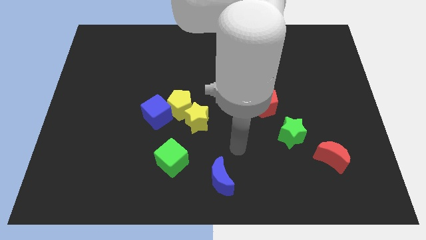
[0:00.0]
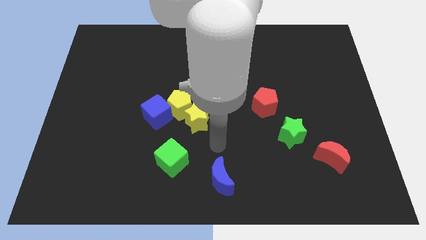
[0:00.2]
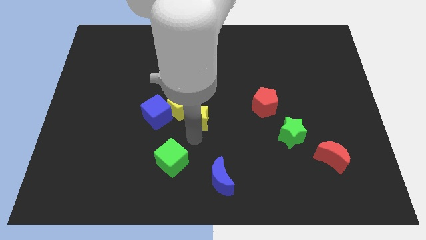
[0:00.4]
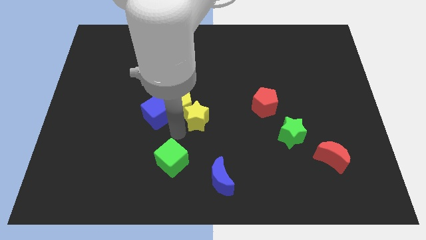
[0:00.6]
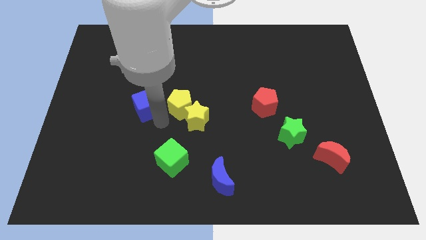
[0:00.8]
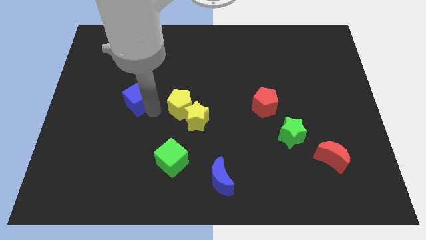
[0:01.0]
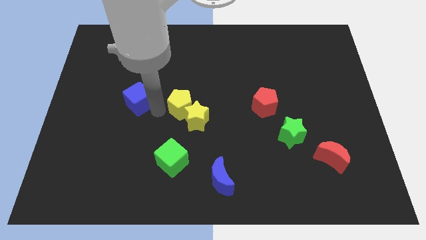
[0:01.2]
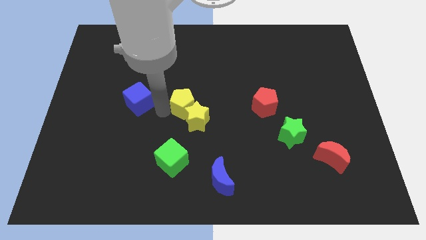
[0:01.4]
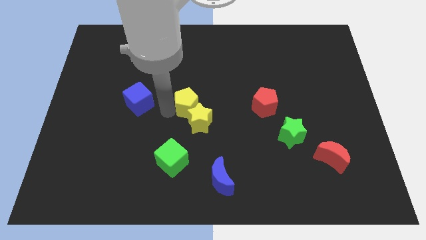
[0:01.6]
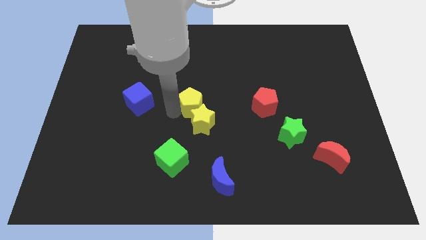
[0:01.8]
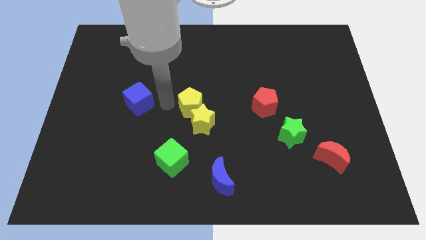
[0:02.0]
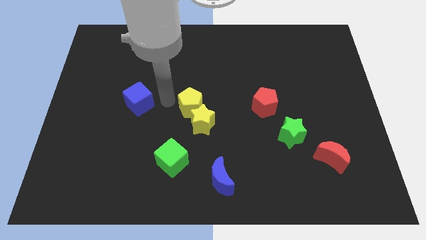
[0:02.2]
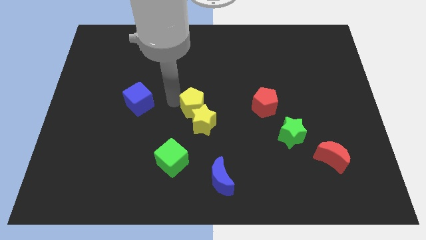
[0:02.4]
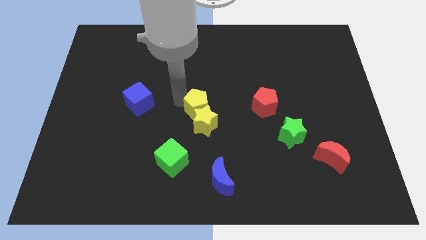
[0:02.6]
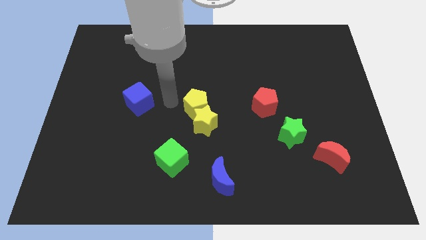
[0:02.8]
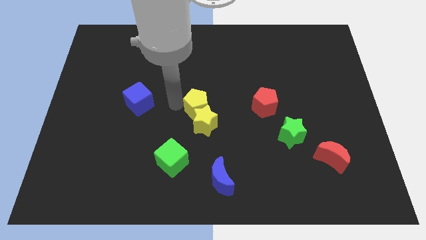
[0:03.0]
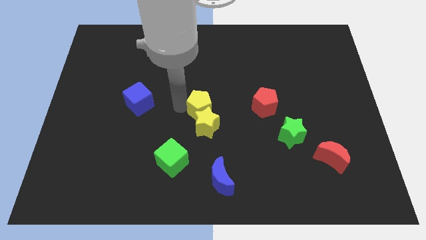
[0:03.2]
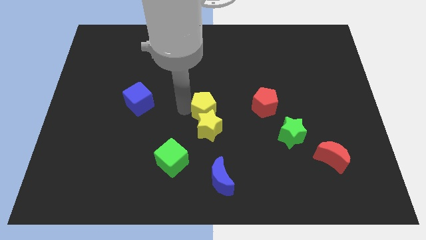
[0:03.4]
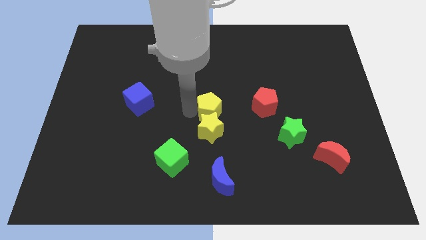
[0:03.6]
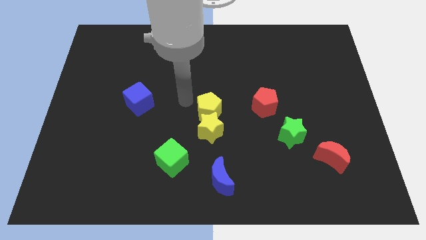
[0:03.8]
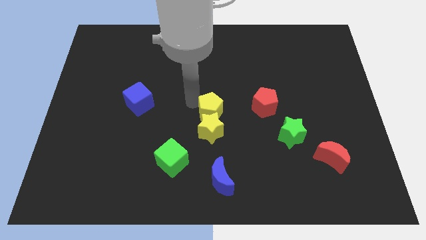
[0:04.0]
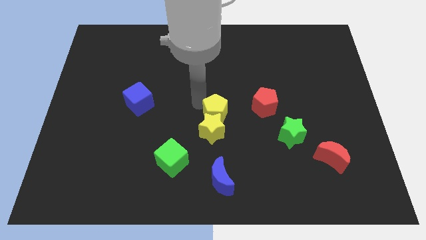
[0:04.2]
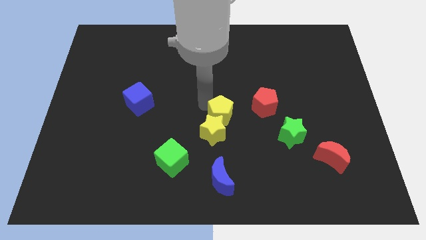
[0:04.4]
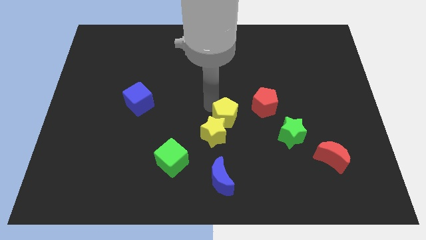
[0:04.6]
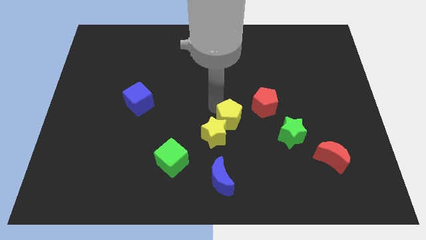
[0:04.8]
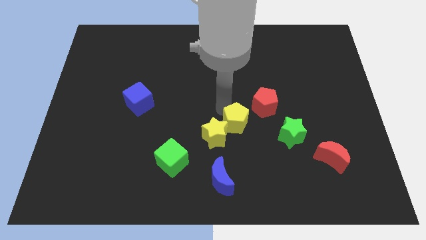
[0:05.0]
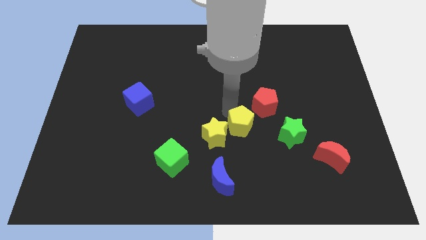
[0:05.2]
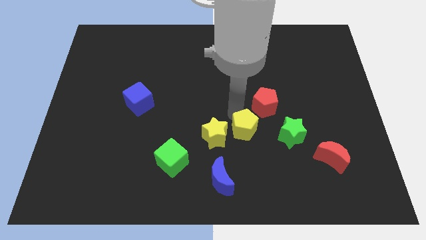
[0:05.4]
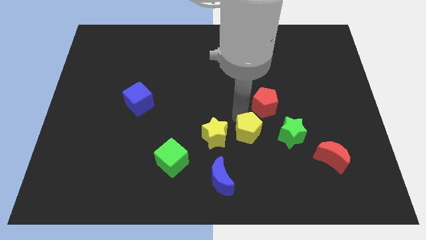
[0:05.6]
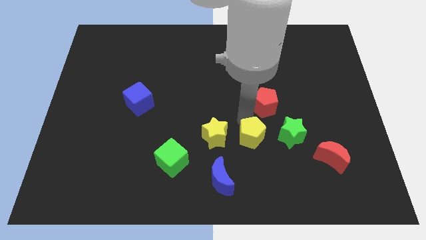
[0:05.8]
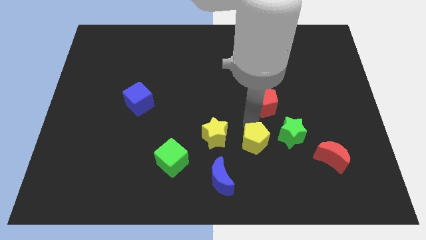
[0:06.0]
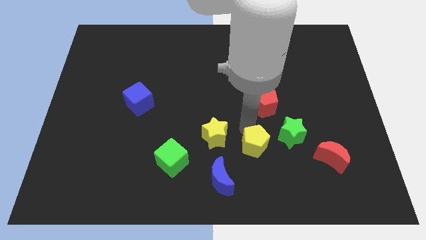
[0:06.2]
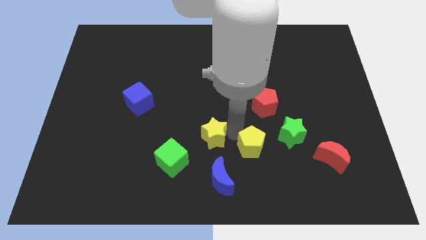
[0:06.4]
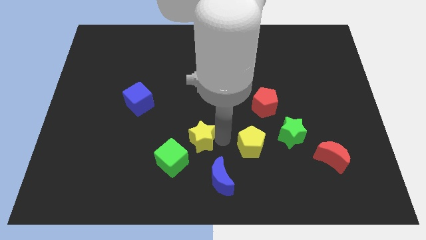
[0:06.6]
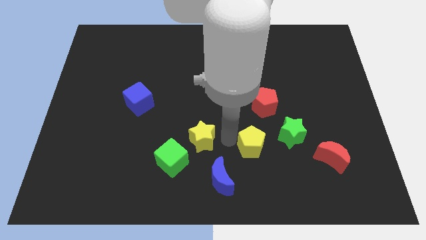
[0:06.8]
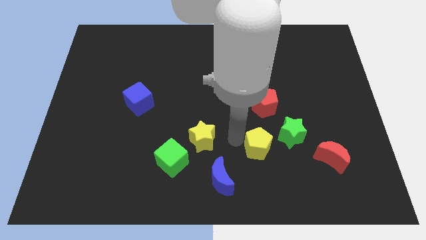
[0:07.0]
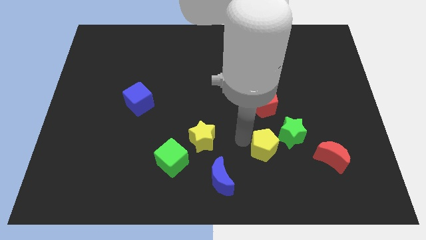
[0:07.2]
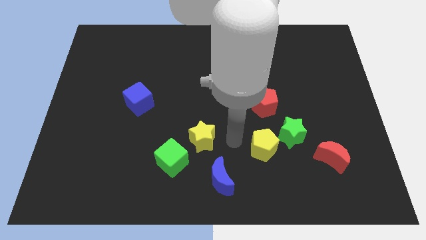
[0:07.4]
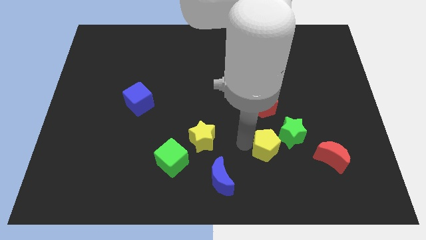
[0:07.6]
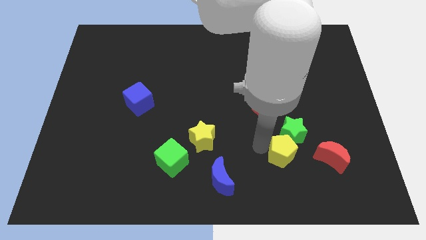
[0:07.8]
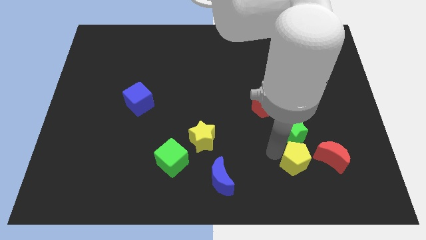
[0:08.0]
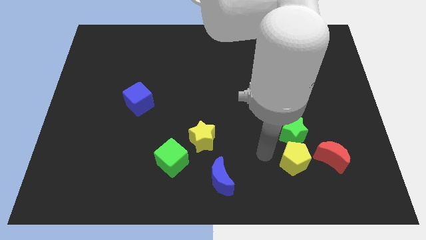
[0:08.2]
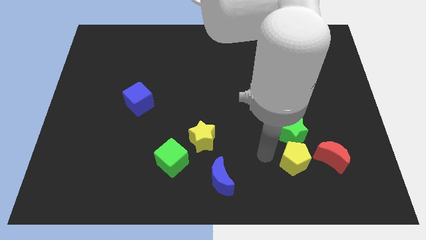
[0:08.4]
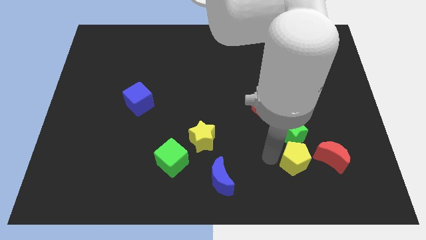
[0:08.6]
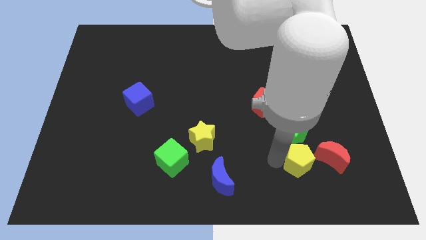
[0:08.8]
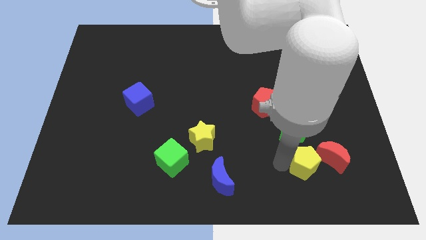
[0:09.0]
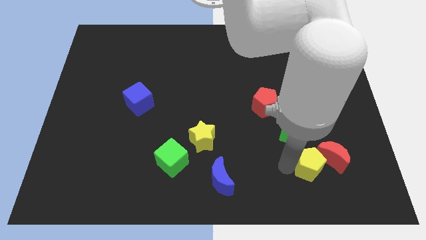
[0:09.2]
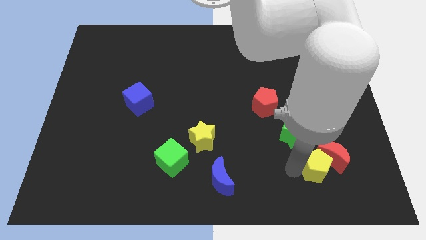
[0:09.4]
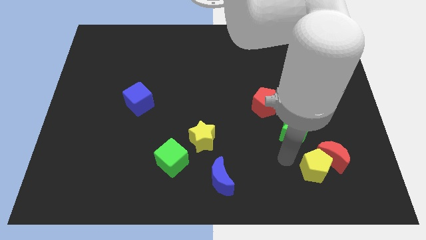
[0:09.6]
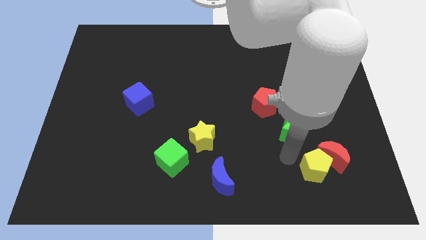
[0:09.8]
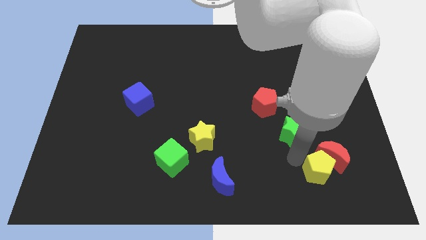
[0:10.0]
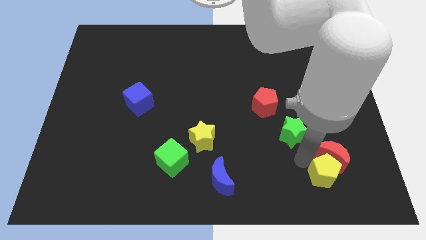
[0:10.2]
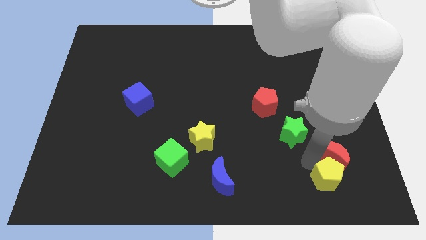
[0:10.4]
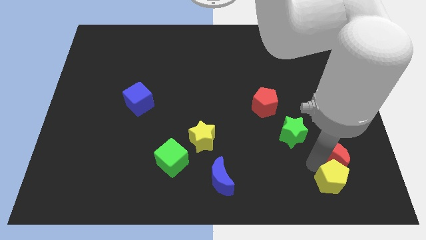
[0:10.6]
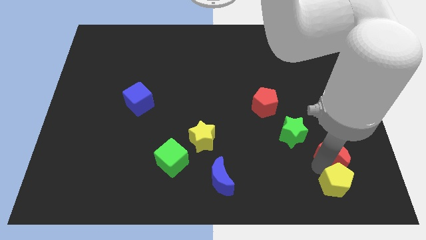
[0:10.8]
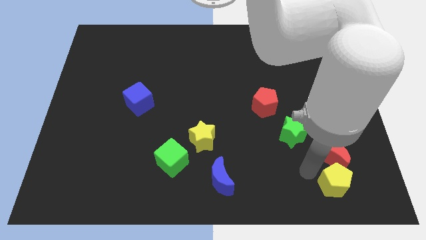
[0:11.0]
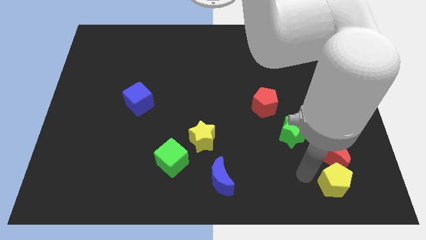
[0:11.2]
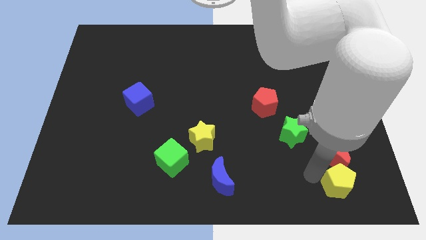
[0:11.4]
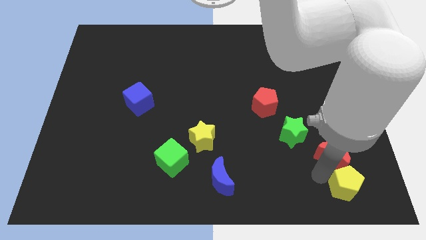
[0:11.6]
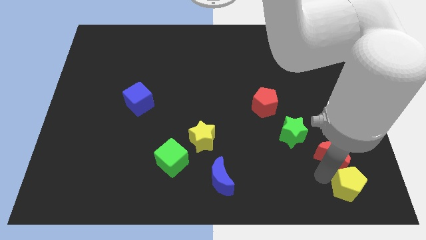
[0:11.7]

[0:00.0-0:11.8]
put the yellow pentagon to the lower right corner
